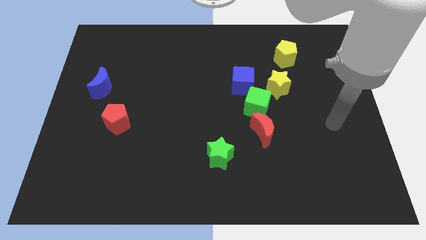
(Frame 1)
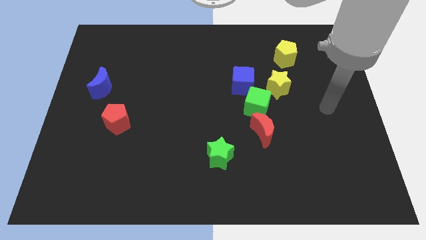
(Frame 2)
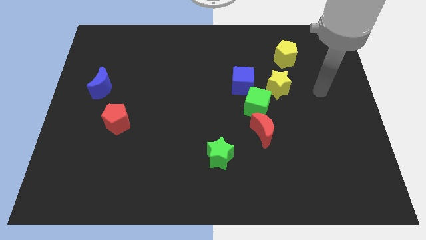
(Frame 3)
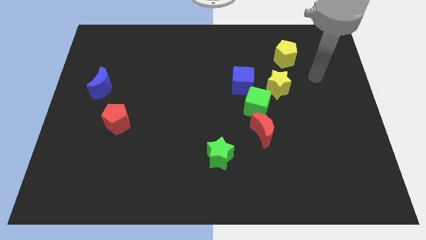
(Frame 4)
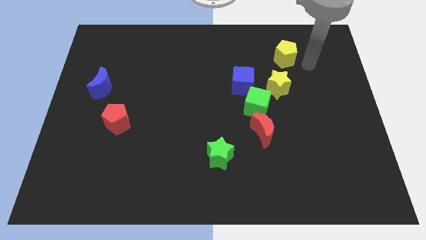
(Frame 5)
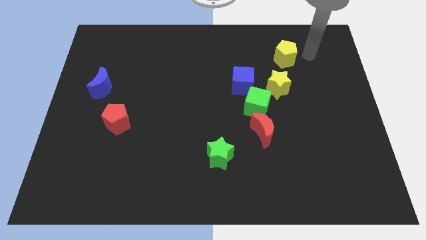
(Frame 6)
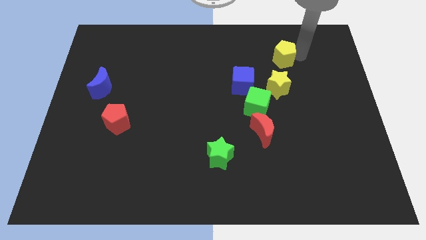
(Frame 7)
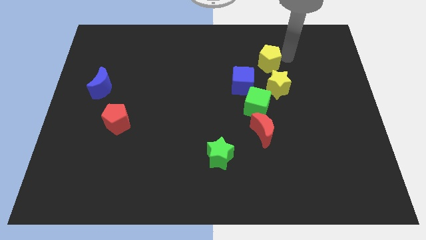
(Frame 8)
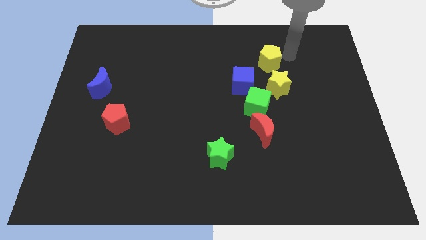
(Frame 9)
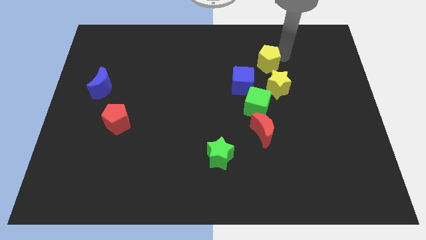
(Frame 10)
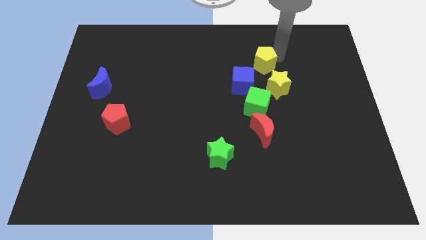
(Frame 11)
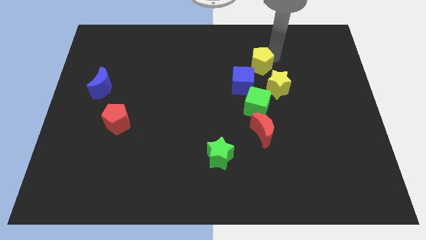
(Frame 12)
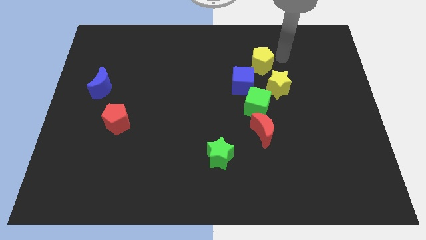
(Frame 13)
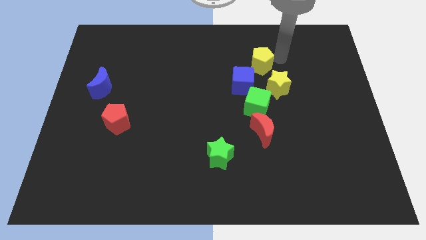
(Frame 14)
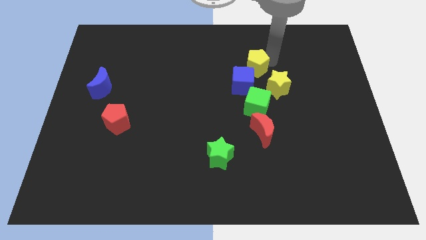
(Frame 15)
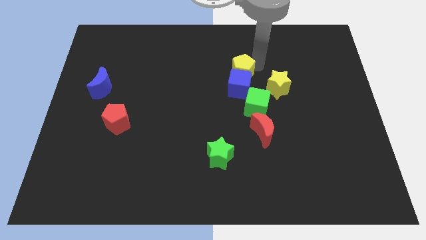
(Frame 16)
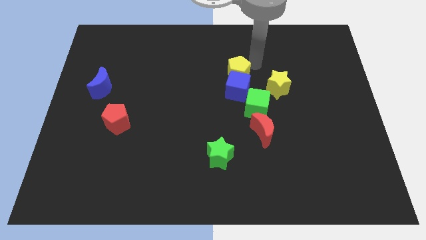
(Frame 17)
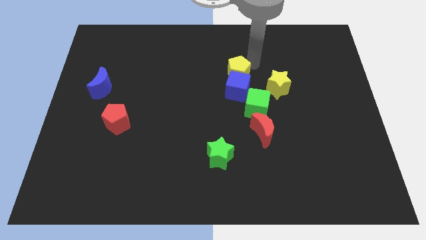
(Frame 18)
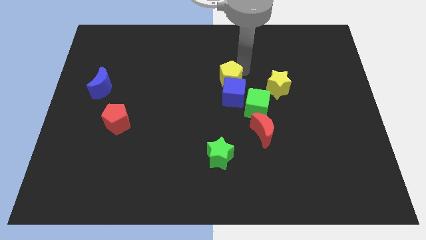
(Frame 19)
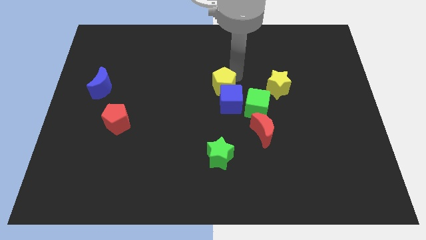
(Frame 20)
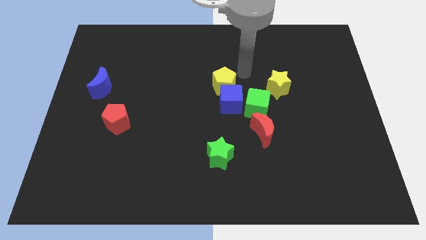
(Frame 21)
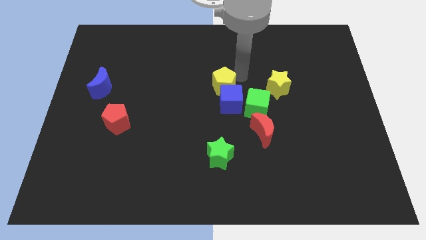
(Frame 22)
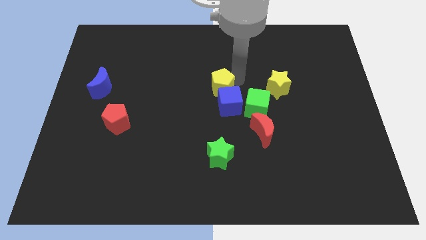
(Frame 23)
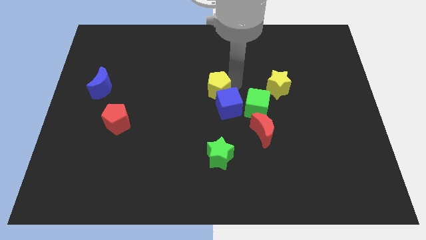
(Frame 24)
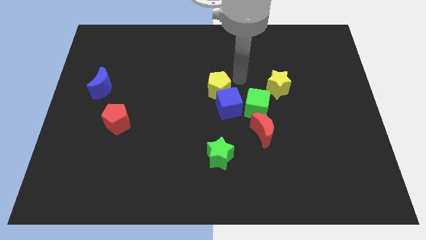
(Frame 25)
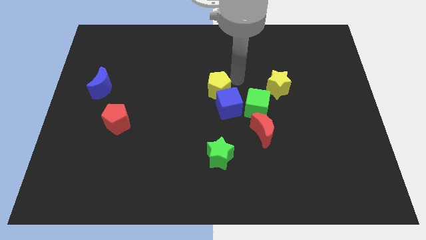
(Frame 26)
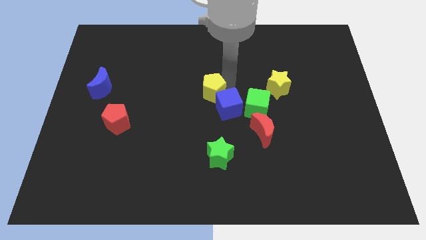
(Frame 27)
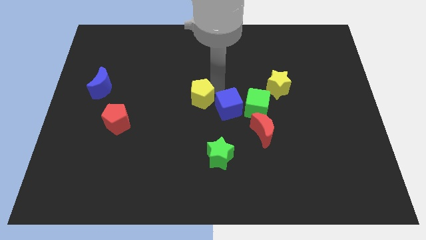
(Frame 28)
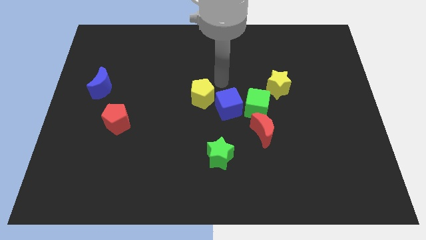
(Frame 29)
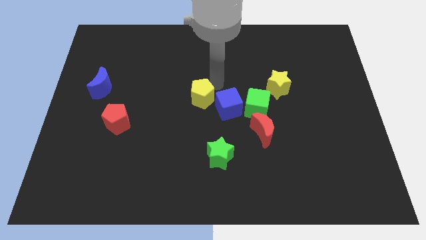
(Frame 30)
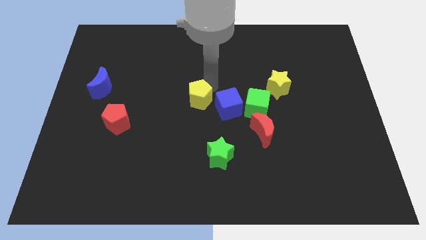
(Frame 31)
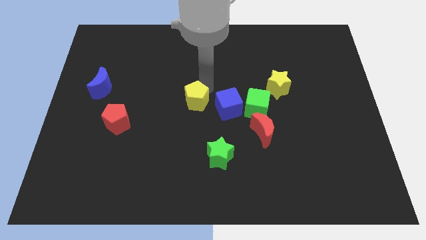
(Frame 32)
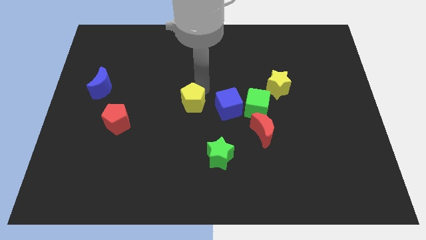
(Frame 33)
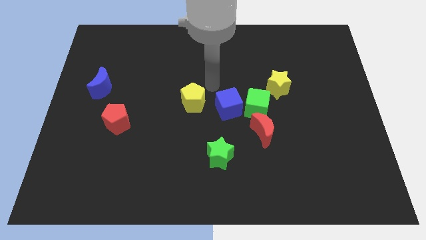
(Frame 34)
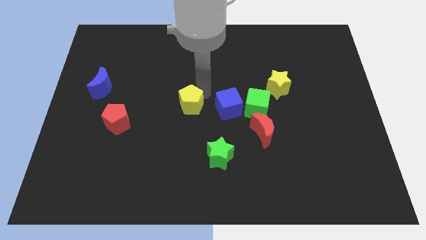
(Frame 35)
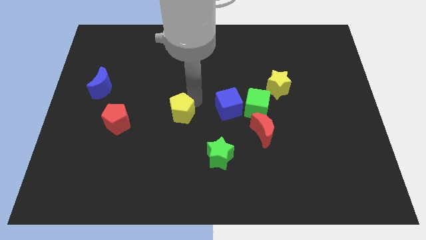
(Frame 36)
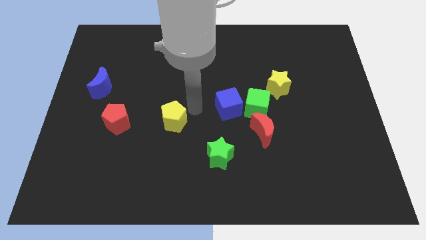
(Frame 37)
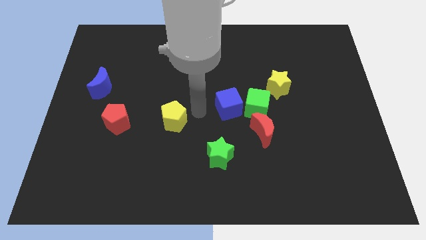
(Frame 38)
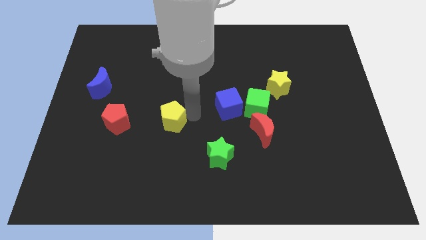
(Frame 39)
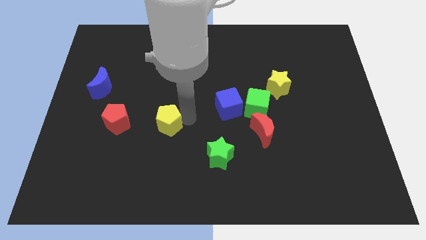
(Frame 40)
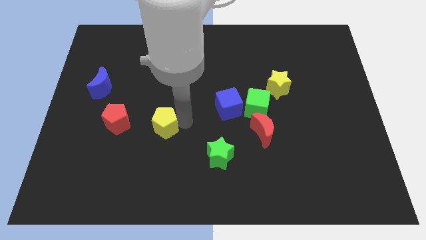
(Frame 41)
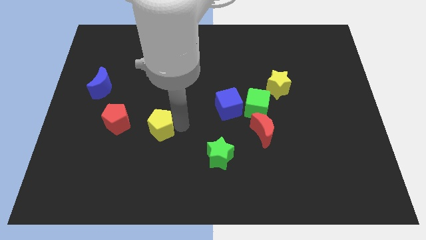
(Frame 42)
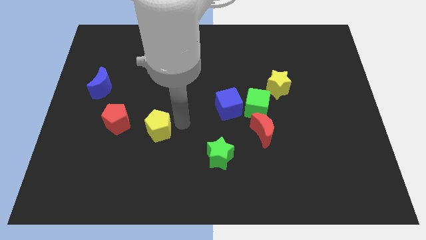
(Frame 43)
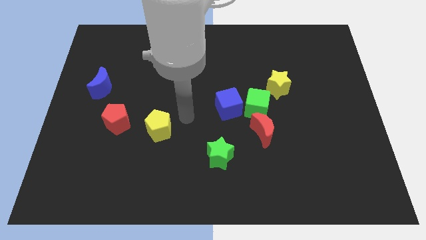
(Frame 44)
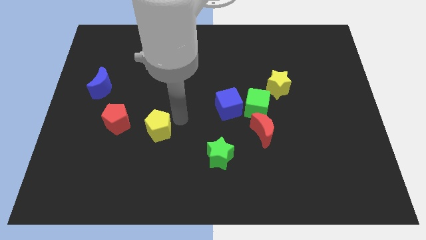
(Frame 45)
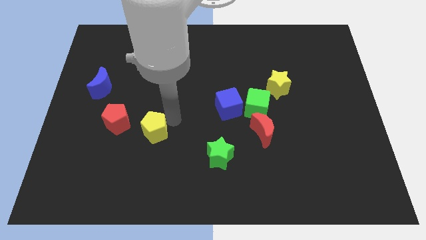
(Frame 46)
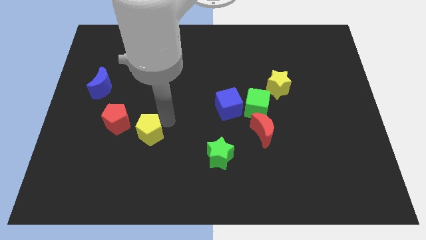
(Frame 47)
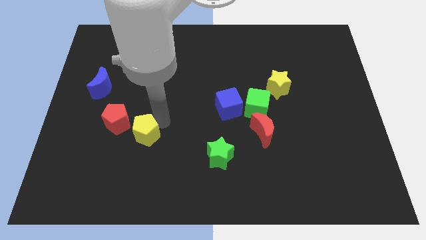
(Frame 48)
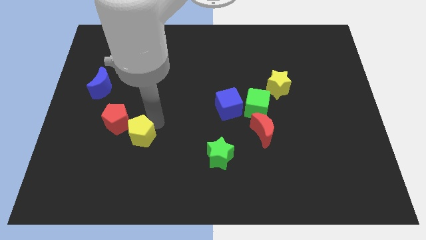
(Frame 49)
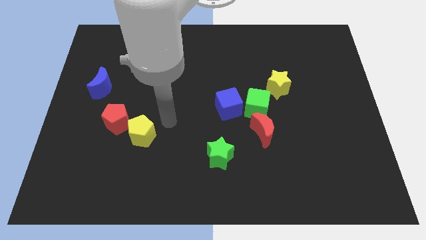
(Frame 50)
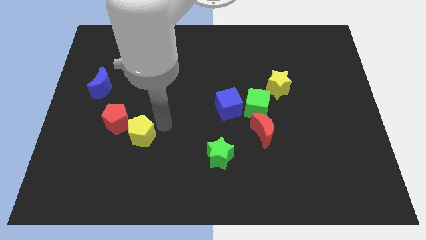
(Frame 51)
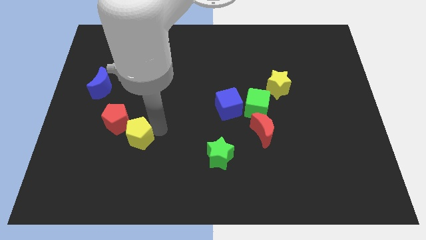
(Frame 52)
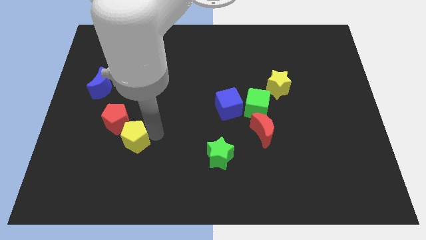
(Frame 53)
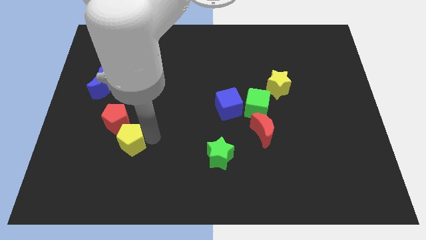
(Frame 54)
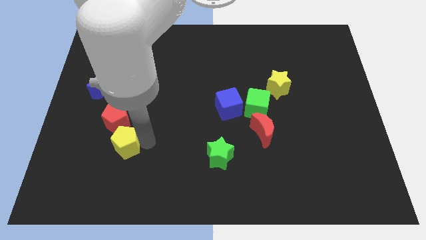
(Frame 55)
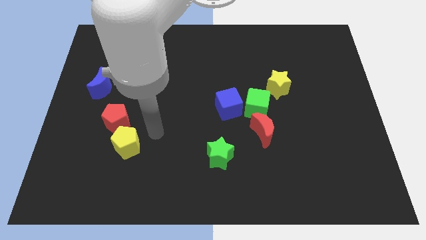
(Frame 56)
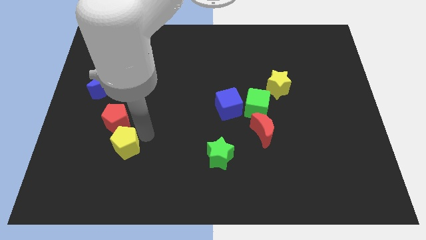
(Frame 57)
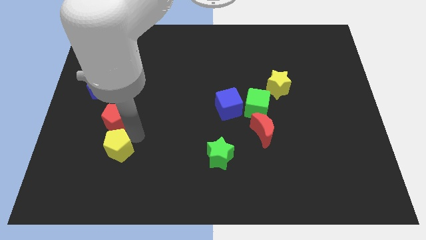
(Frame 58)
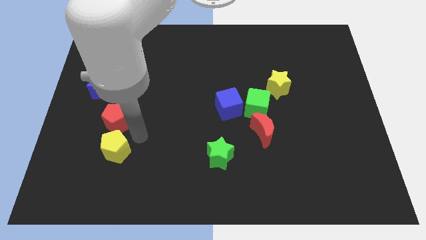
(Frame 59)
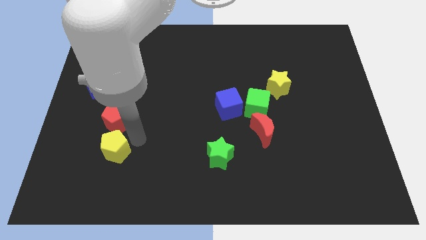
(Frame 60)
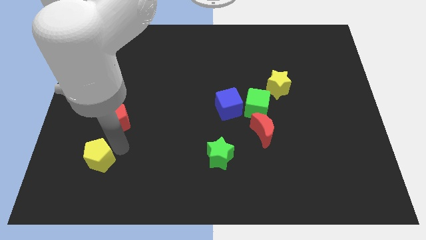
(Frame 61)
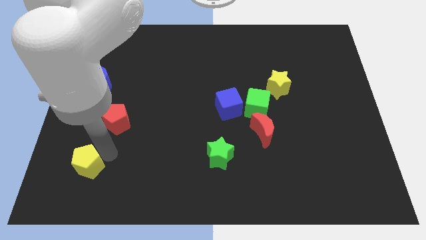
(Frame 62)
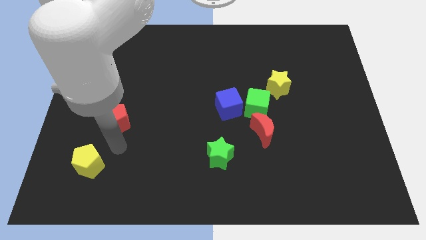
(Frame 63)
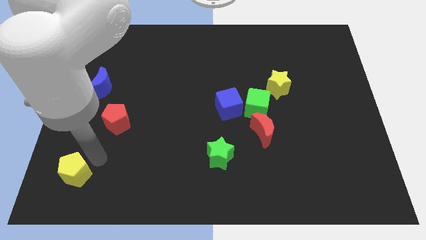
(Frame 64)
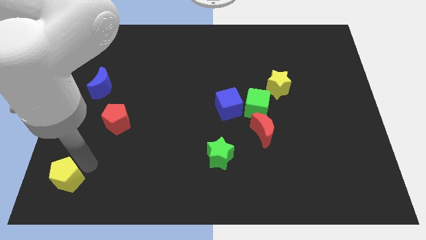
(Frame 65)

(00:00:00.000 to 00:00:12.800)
move the yellow pentagon to the bottom left
